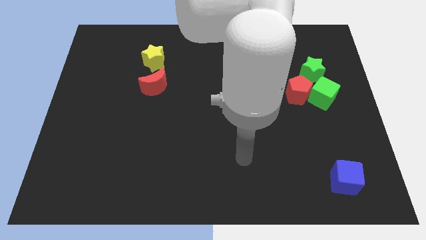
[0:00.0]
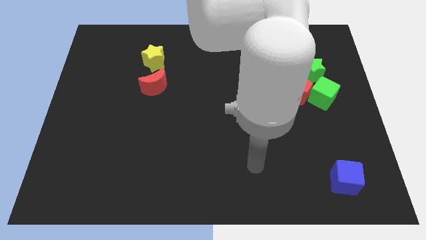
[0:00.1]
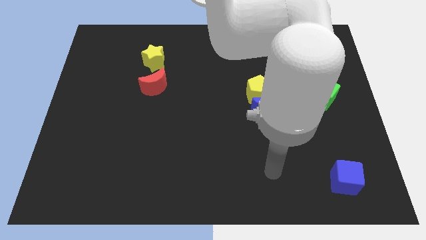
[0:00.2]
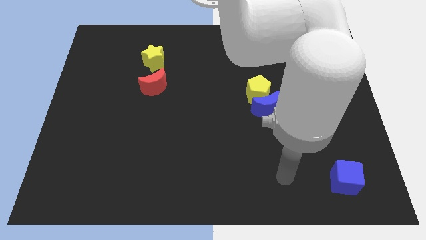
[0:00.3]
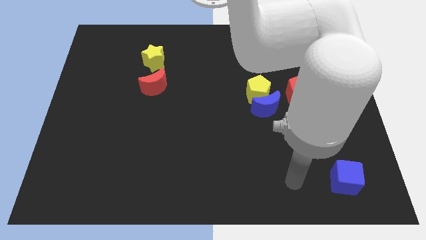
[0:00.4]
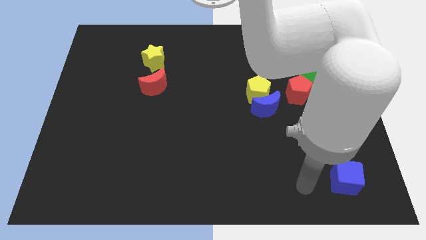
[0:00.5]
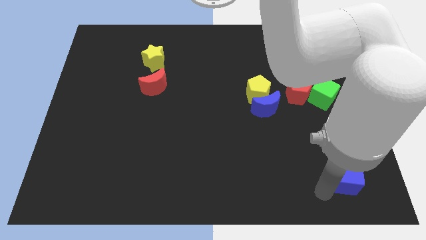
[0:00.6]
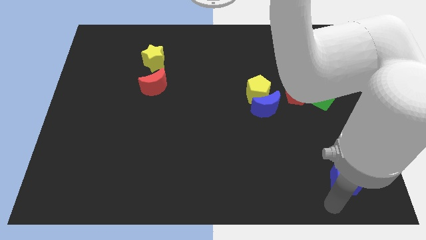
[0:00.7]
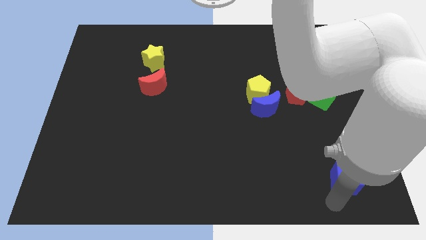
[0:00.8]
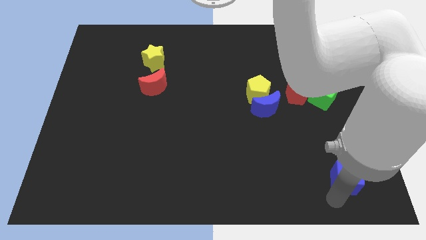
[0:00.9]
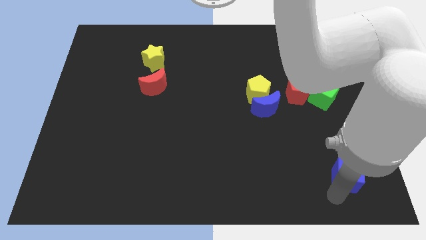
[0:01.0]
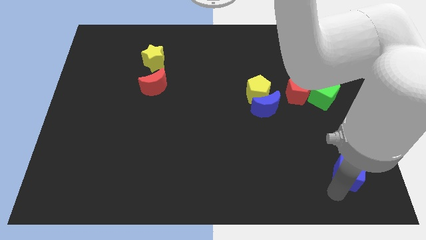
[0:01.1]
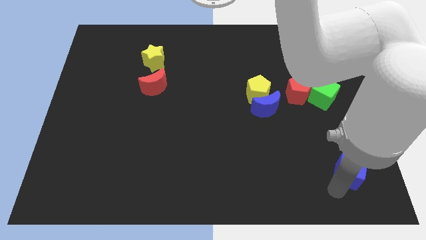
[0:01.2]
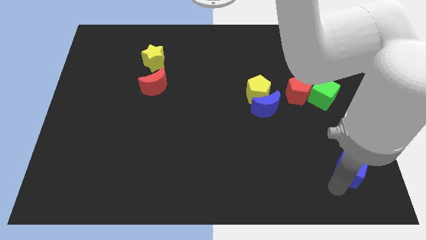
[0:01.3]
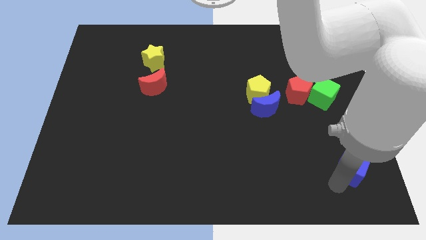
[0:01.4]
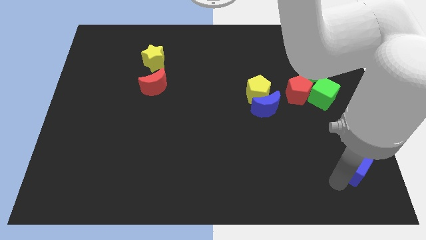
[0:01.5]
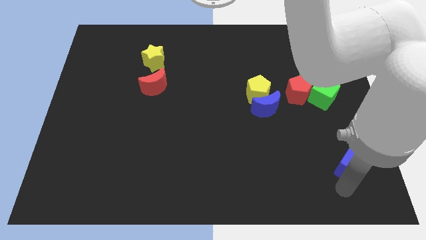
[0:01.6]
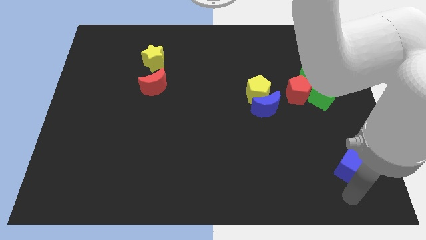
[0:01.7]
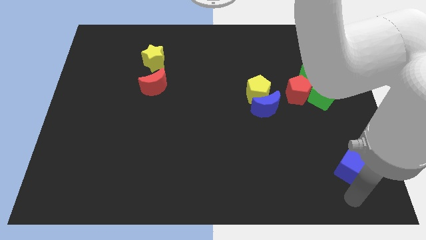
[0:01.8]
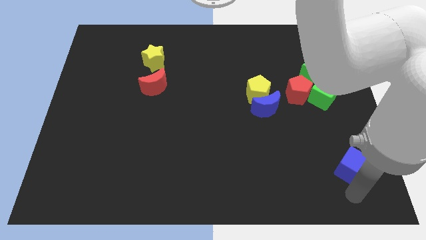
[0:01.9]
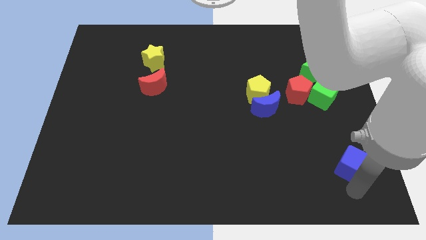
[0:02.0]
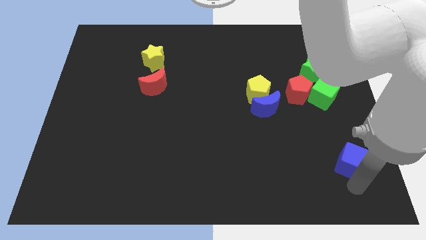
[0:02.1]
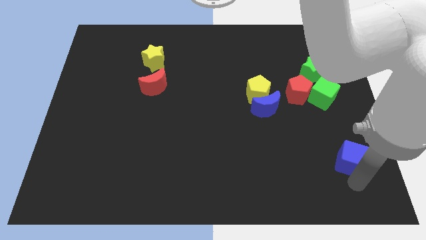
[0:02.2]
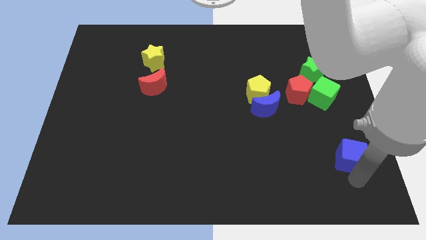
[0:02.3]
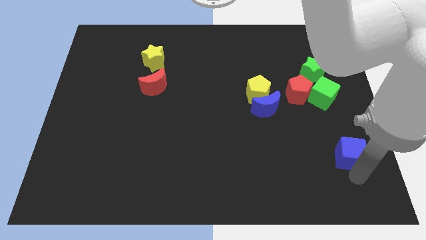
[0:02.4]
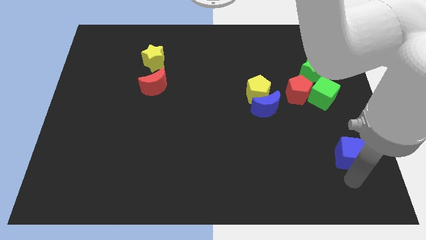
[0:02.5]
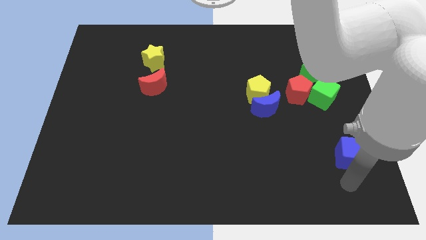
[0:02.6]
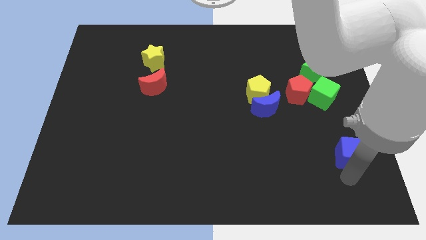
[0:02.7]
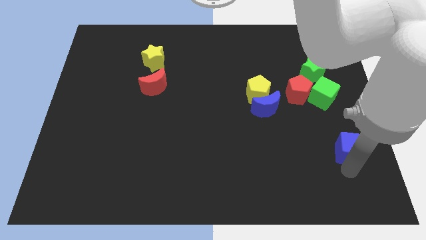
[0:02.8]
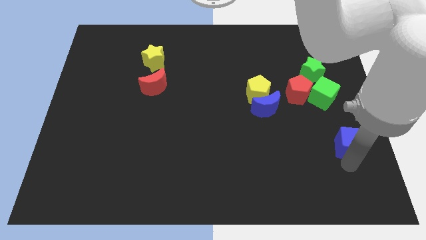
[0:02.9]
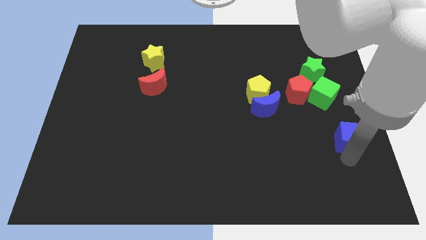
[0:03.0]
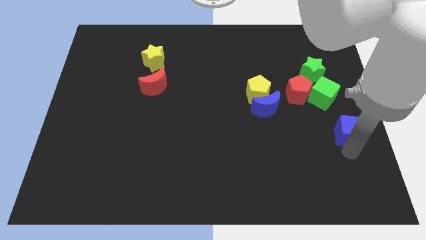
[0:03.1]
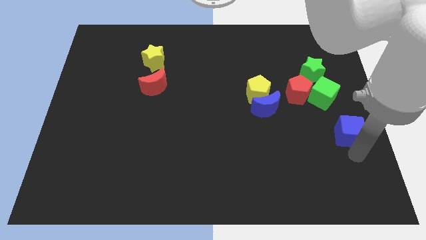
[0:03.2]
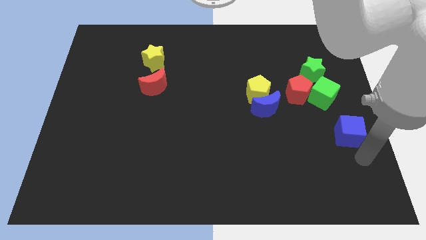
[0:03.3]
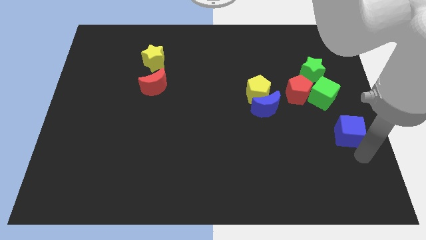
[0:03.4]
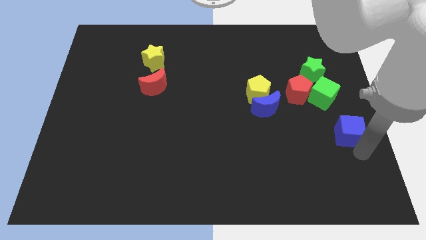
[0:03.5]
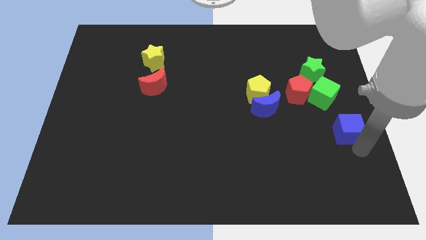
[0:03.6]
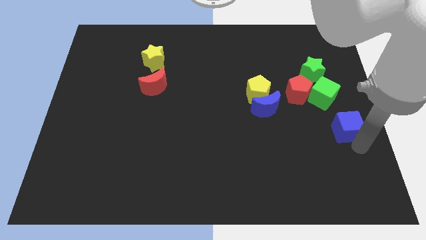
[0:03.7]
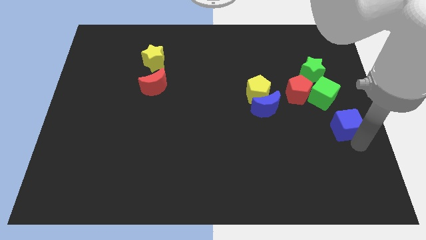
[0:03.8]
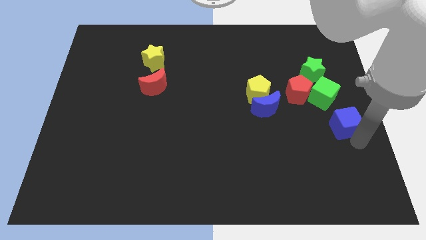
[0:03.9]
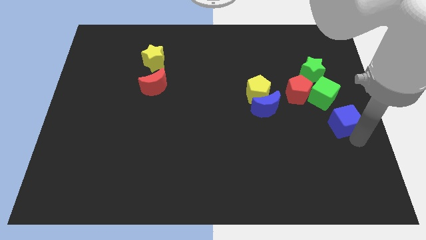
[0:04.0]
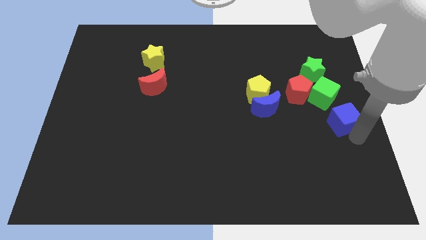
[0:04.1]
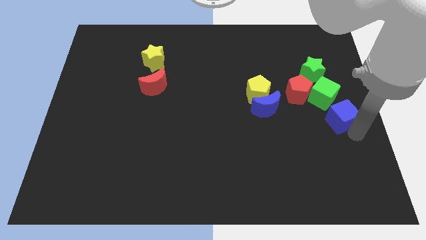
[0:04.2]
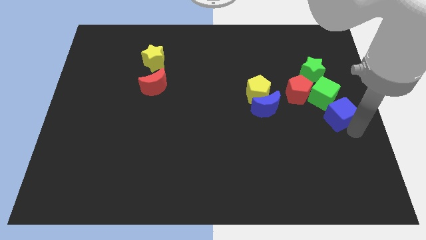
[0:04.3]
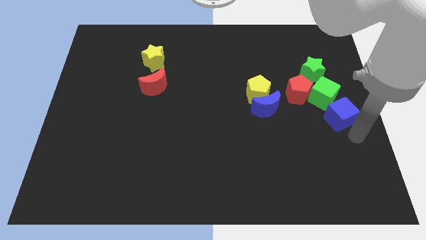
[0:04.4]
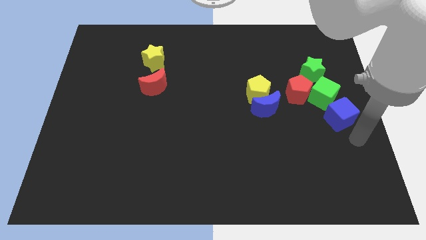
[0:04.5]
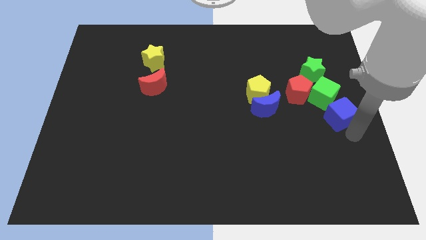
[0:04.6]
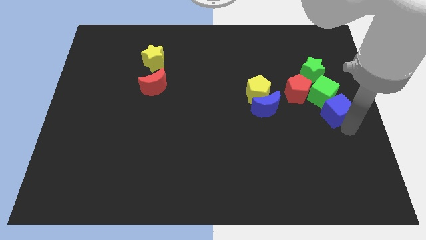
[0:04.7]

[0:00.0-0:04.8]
push the blue cube towards the green cube

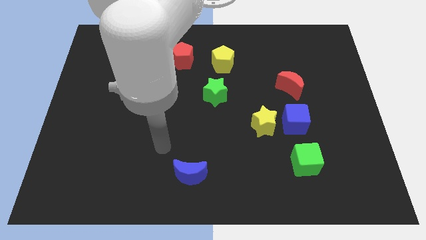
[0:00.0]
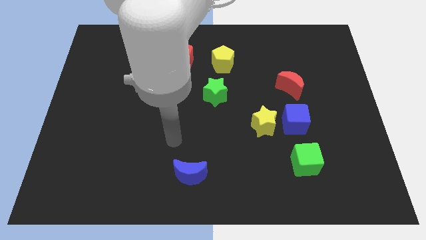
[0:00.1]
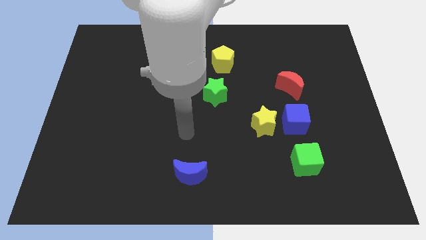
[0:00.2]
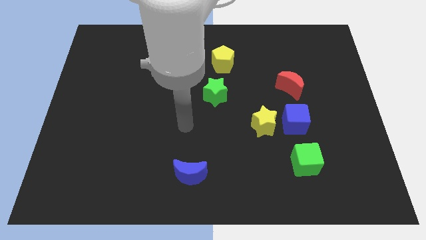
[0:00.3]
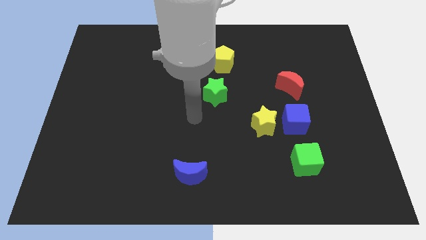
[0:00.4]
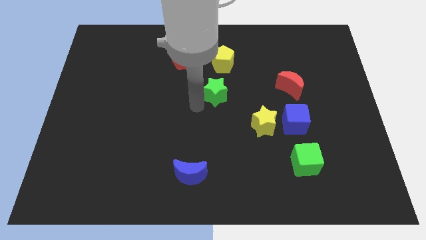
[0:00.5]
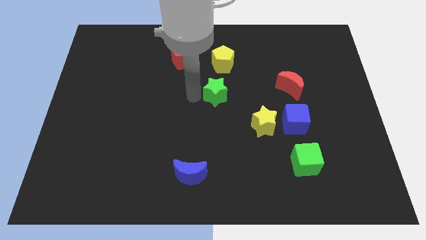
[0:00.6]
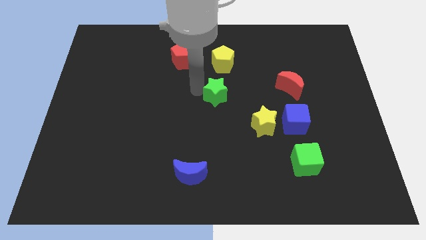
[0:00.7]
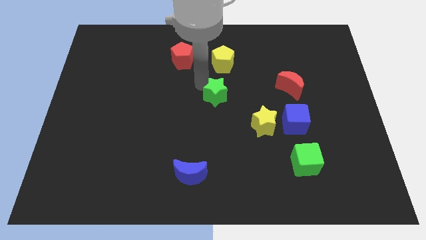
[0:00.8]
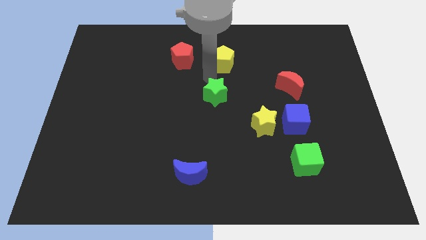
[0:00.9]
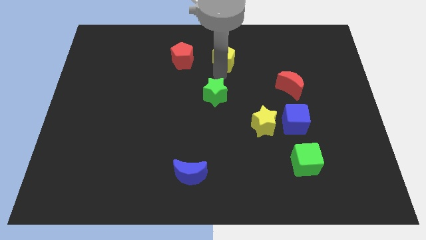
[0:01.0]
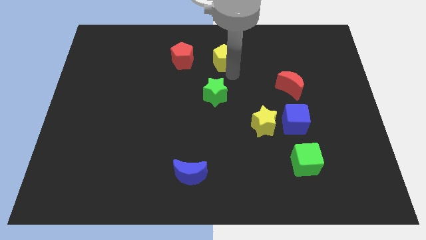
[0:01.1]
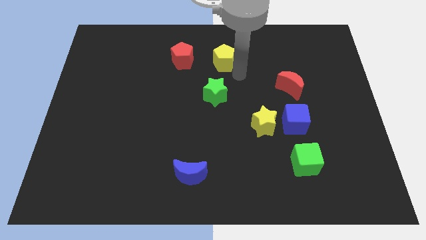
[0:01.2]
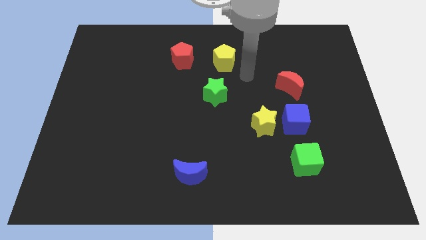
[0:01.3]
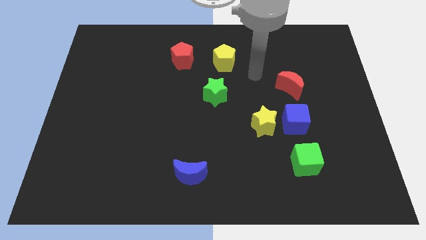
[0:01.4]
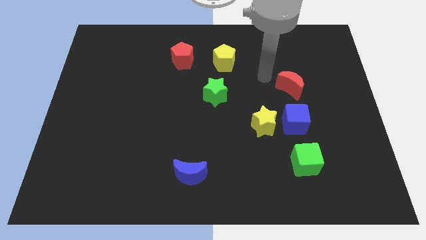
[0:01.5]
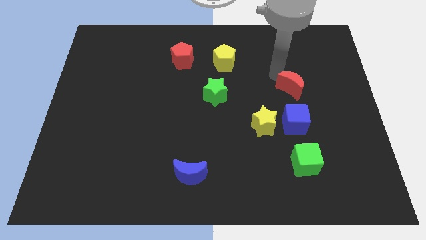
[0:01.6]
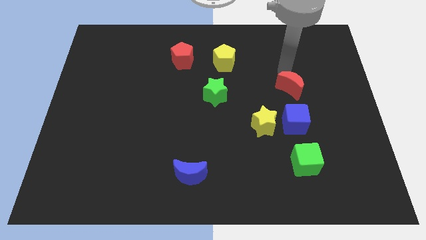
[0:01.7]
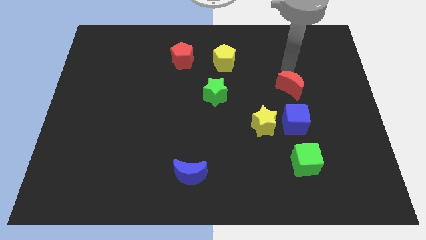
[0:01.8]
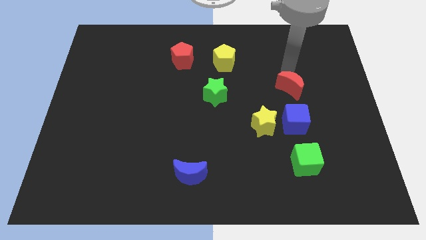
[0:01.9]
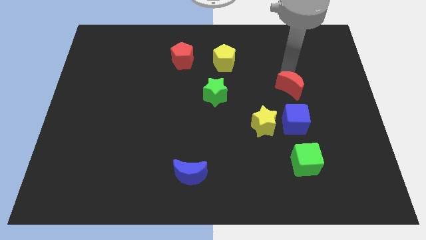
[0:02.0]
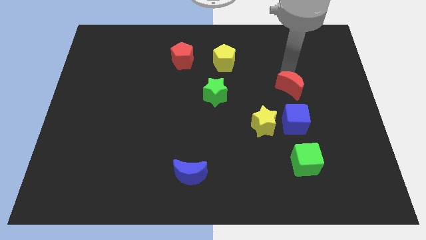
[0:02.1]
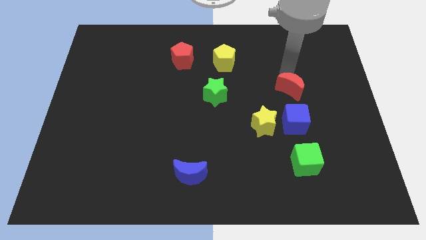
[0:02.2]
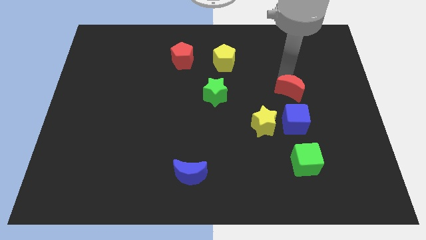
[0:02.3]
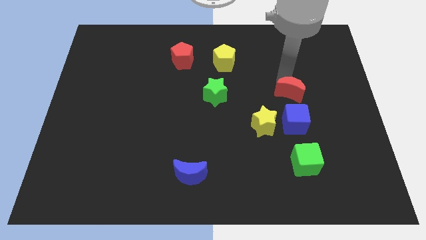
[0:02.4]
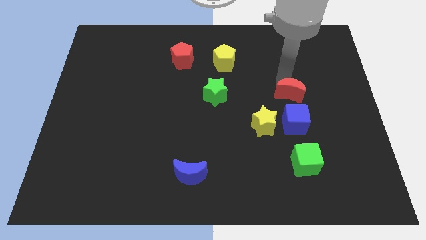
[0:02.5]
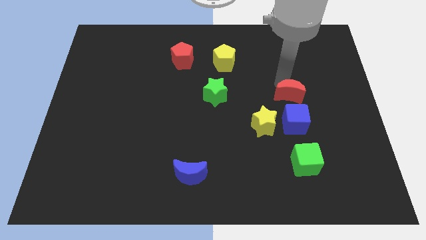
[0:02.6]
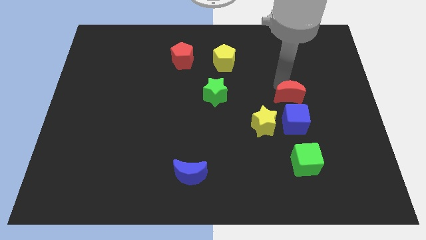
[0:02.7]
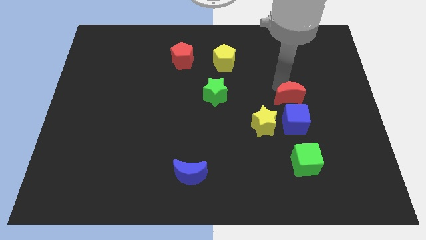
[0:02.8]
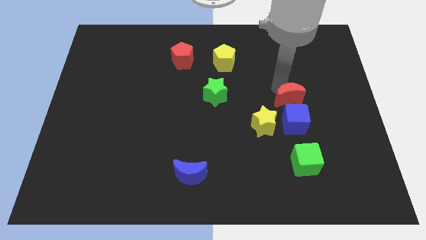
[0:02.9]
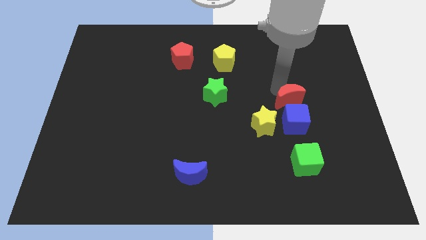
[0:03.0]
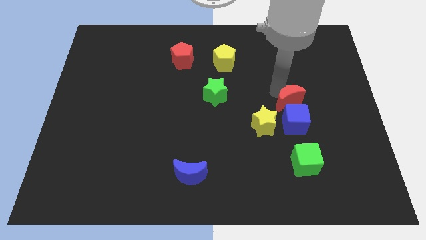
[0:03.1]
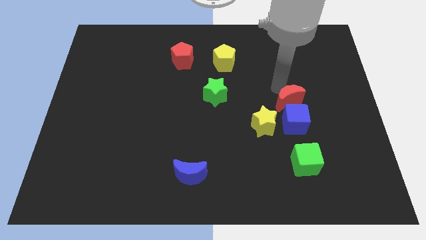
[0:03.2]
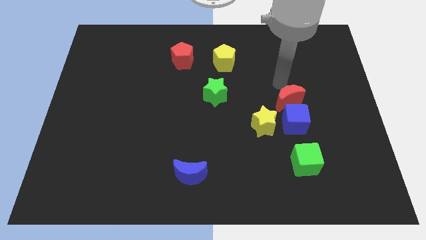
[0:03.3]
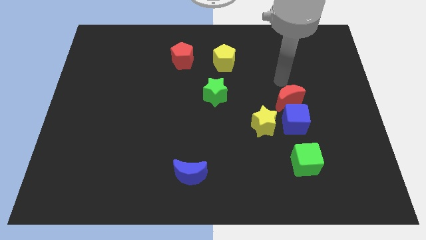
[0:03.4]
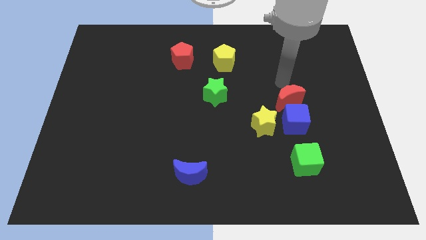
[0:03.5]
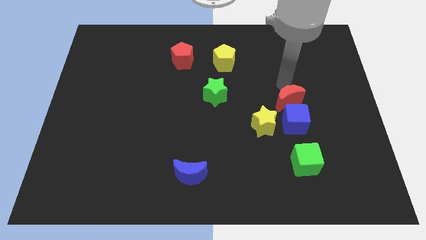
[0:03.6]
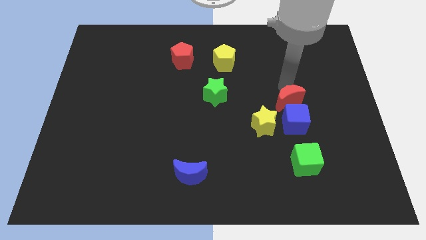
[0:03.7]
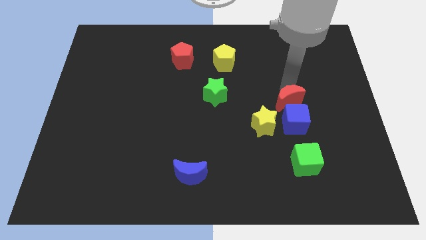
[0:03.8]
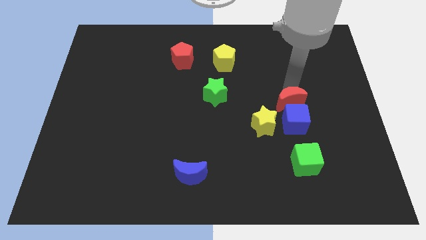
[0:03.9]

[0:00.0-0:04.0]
move the red moon close to the blue cube
